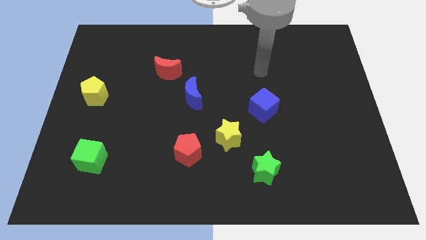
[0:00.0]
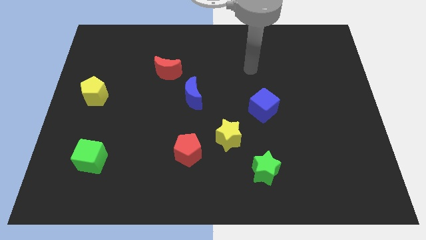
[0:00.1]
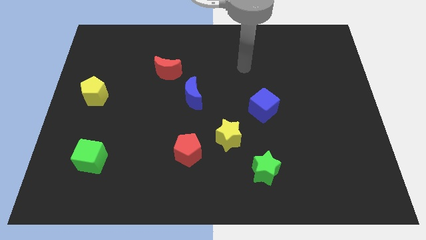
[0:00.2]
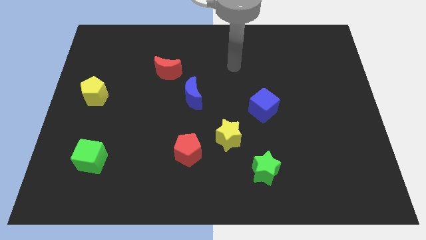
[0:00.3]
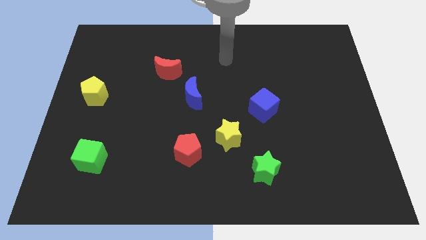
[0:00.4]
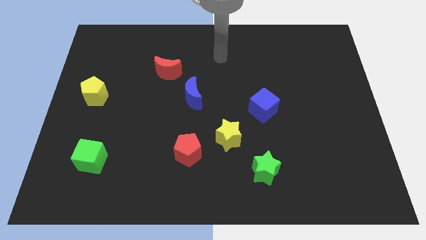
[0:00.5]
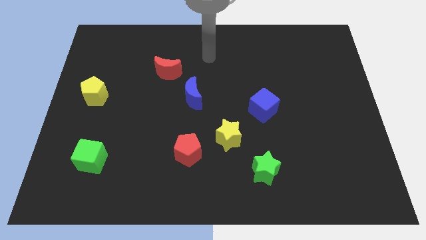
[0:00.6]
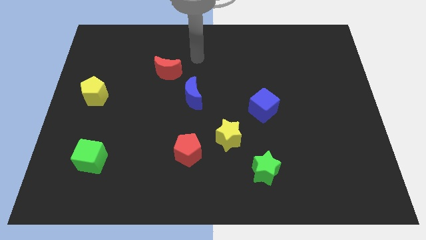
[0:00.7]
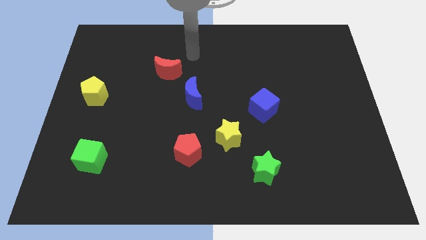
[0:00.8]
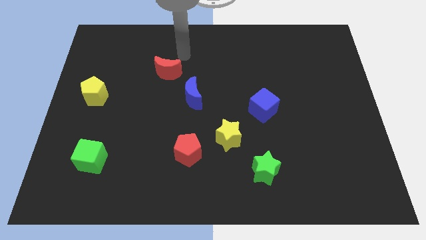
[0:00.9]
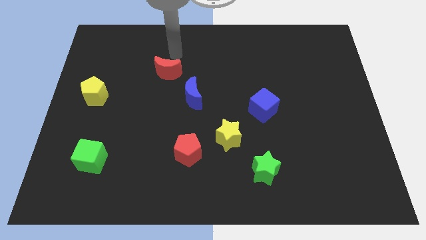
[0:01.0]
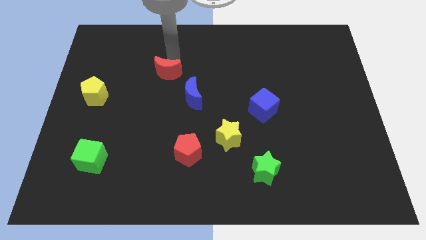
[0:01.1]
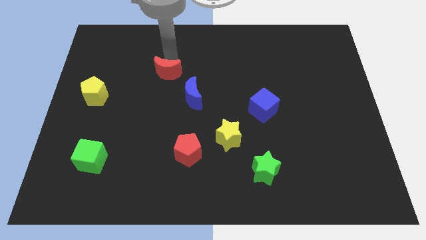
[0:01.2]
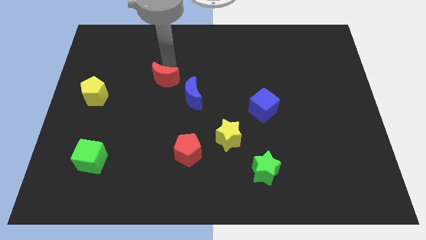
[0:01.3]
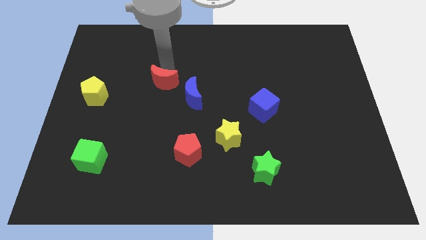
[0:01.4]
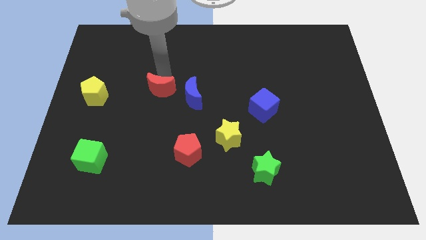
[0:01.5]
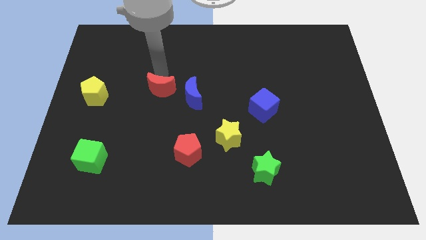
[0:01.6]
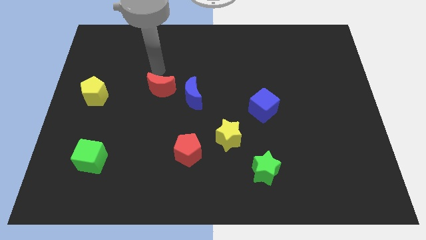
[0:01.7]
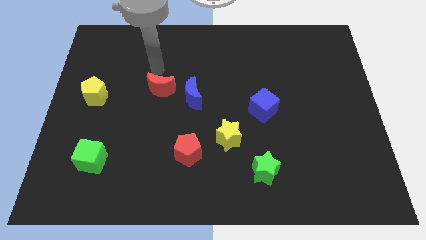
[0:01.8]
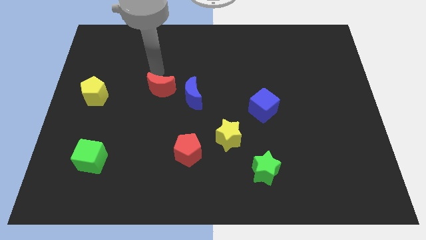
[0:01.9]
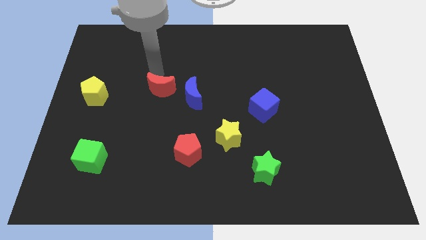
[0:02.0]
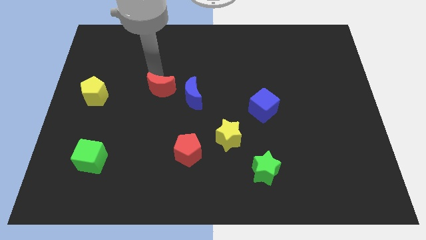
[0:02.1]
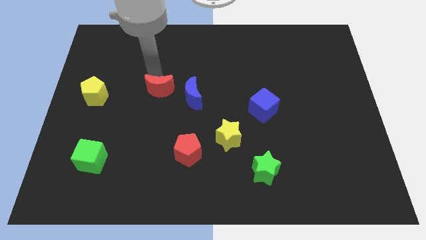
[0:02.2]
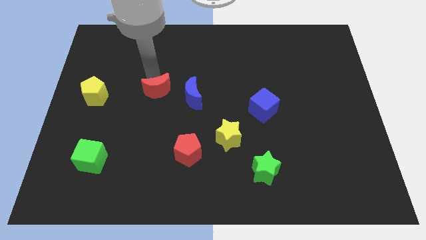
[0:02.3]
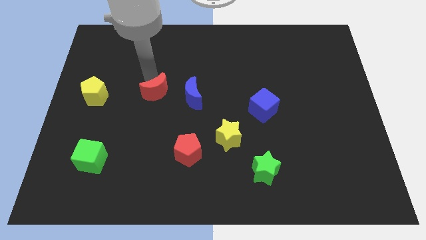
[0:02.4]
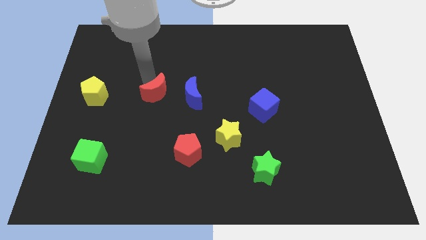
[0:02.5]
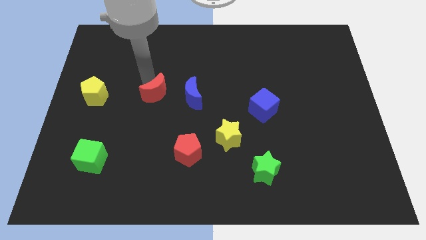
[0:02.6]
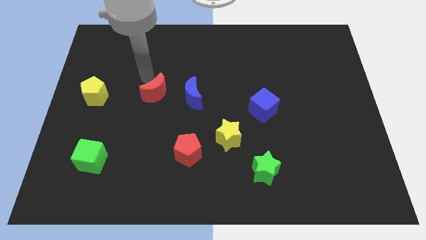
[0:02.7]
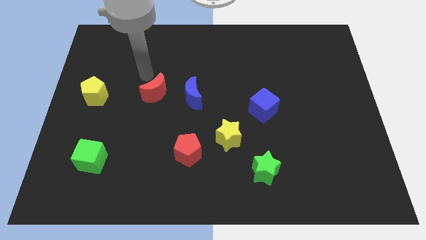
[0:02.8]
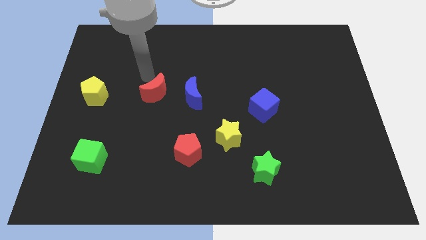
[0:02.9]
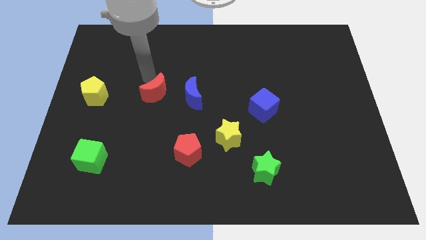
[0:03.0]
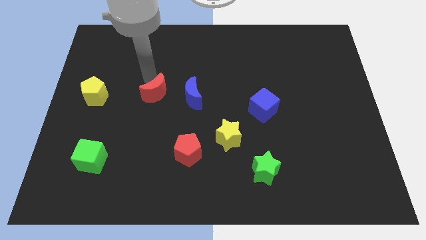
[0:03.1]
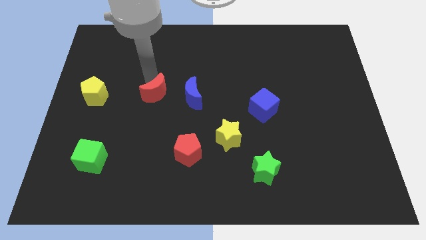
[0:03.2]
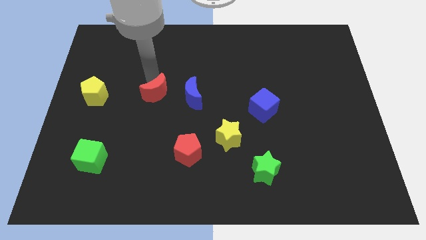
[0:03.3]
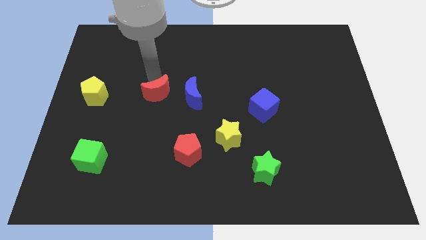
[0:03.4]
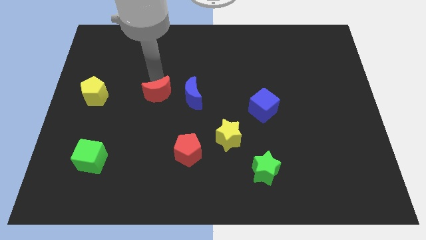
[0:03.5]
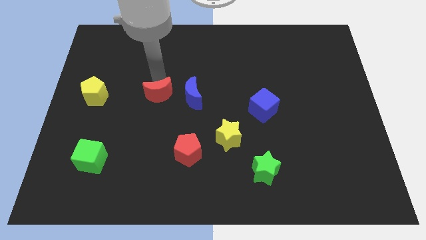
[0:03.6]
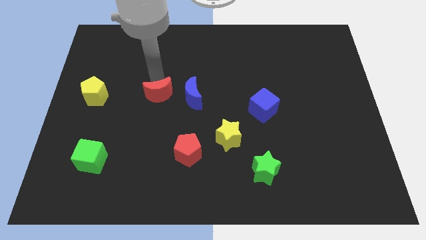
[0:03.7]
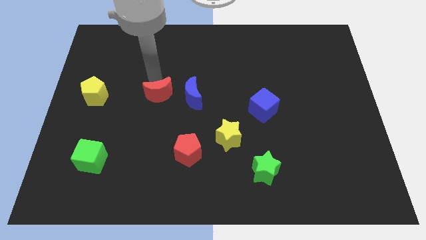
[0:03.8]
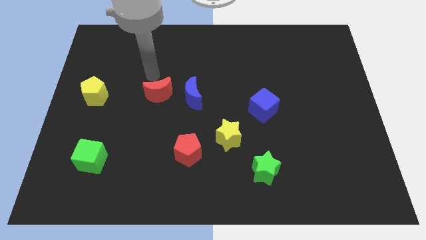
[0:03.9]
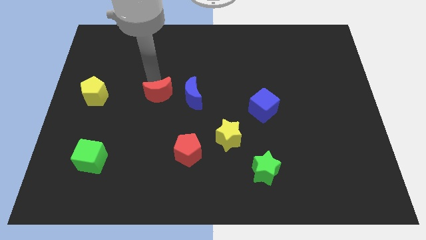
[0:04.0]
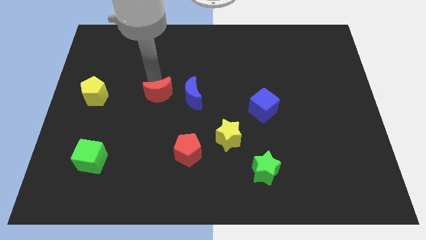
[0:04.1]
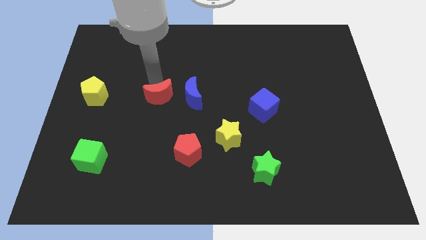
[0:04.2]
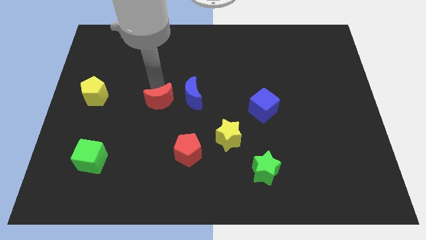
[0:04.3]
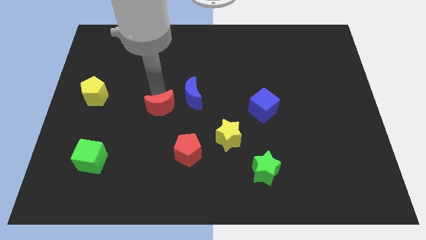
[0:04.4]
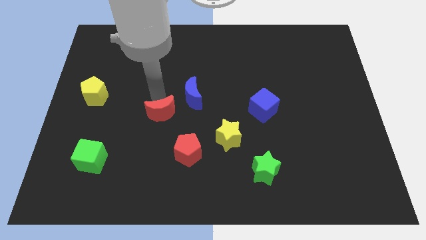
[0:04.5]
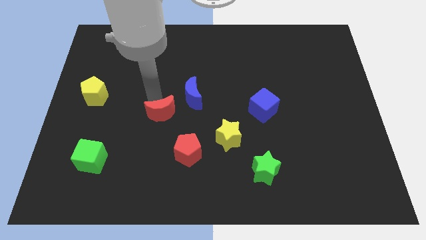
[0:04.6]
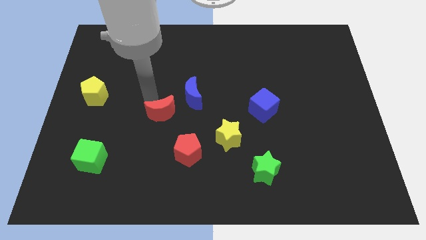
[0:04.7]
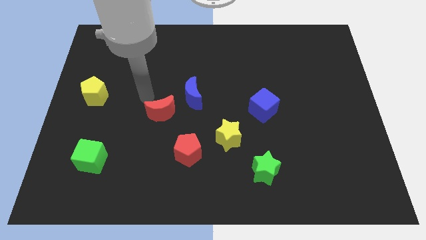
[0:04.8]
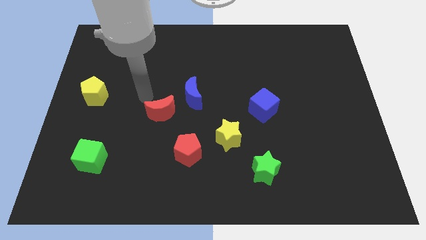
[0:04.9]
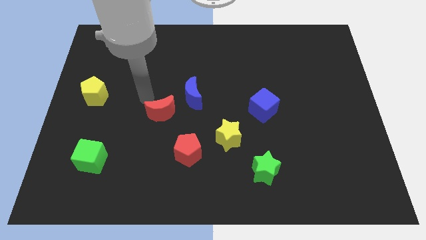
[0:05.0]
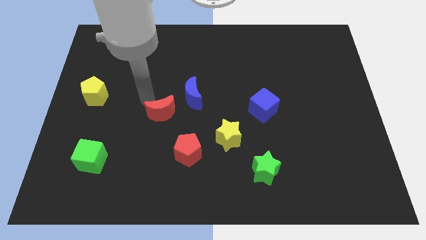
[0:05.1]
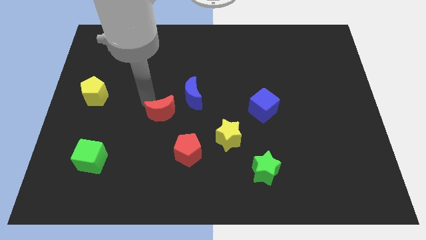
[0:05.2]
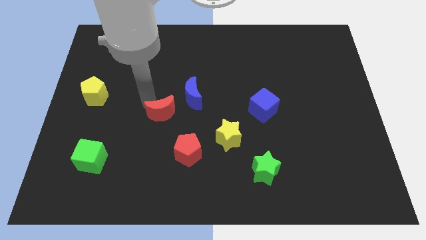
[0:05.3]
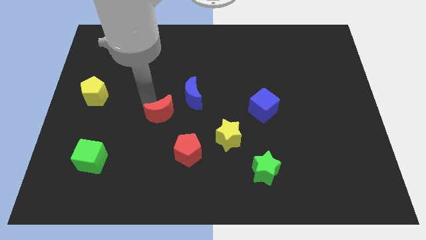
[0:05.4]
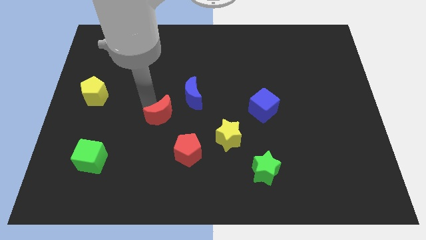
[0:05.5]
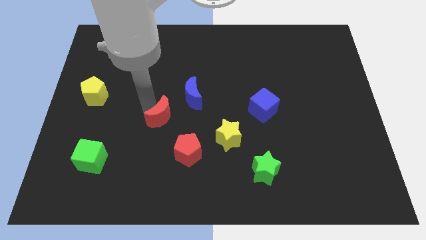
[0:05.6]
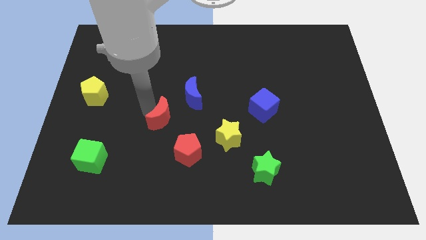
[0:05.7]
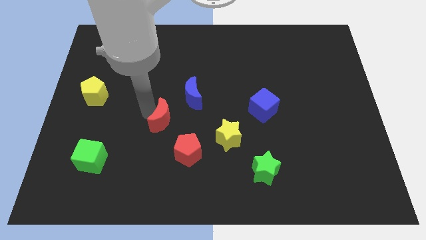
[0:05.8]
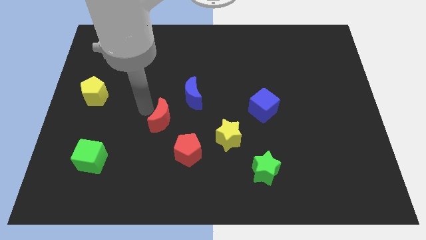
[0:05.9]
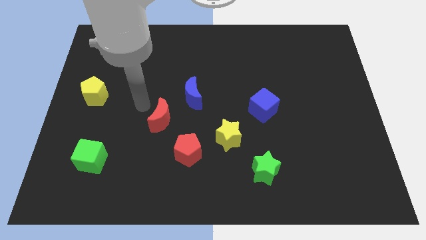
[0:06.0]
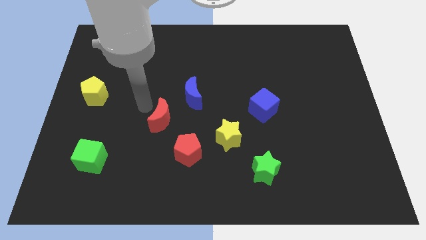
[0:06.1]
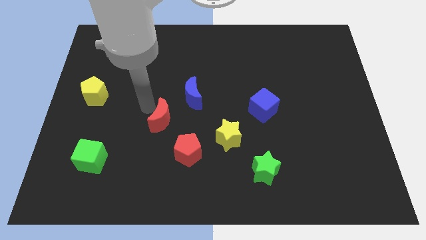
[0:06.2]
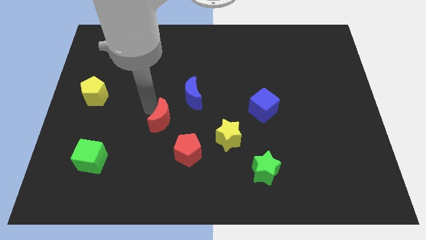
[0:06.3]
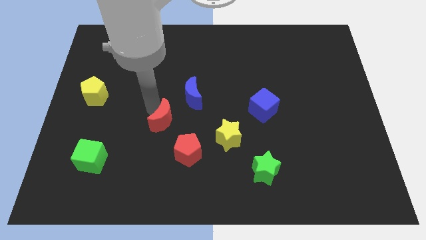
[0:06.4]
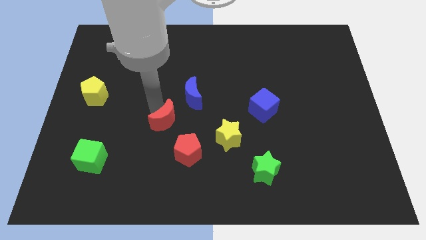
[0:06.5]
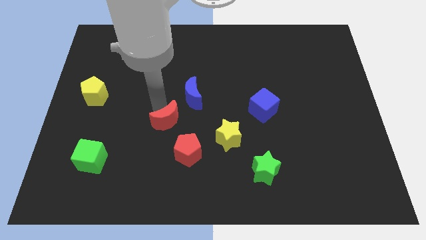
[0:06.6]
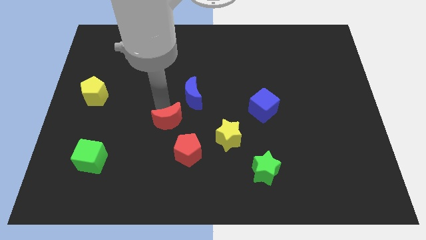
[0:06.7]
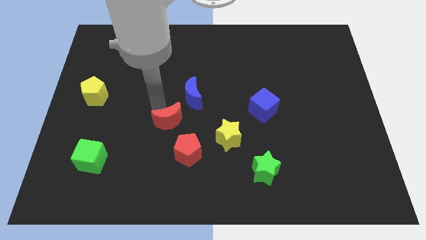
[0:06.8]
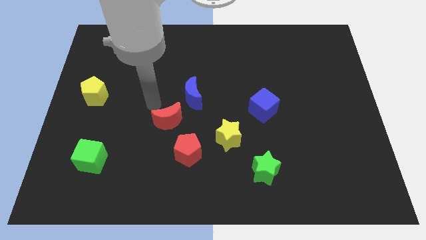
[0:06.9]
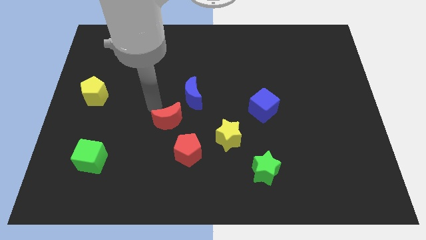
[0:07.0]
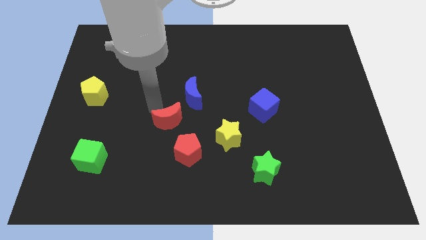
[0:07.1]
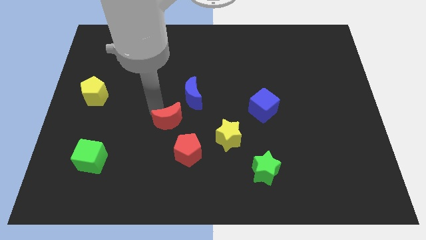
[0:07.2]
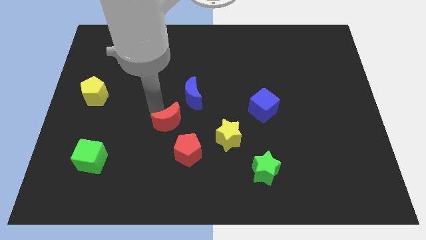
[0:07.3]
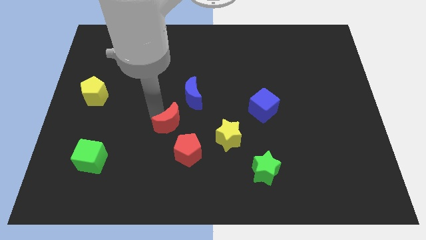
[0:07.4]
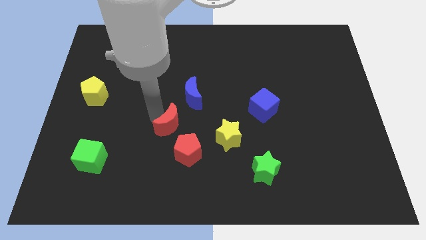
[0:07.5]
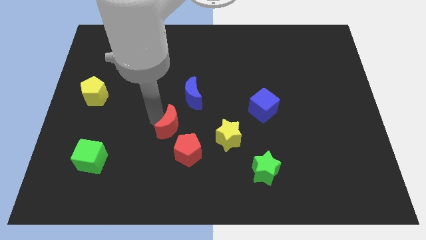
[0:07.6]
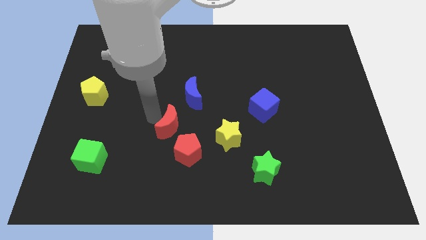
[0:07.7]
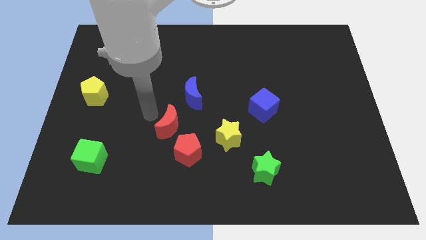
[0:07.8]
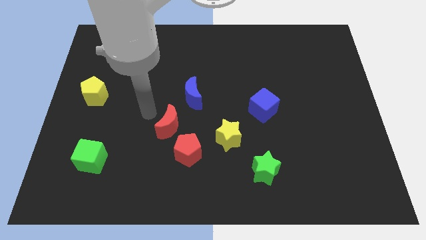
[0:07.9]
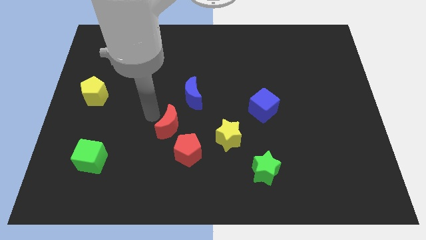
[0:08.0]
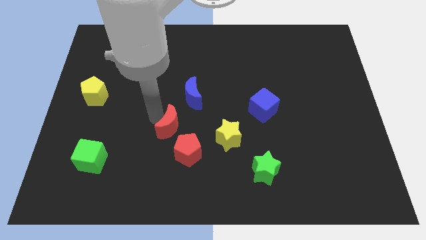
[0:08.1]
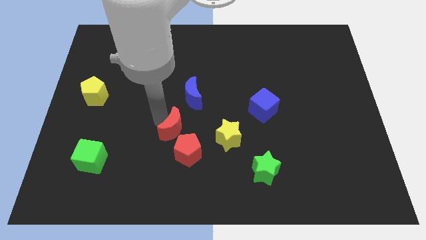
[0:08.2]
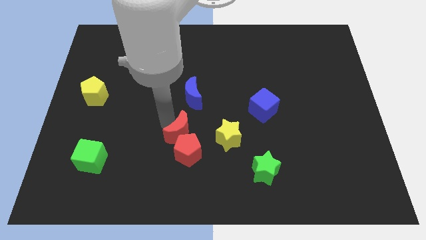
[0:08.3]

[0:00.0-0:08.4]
push the red moon to the red pentagon
